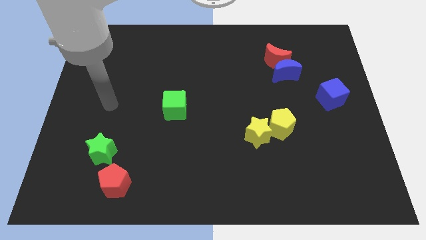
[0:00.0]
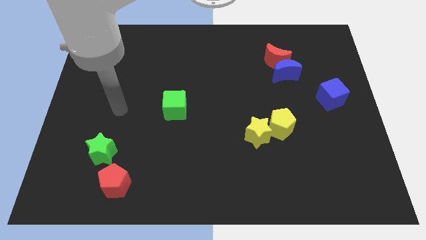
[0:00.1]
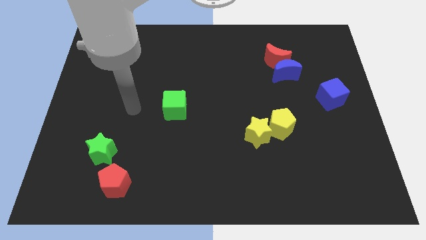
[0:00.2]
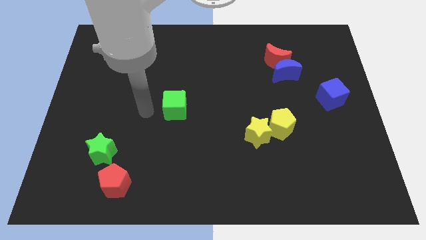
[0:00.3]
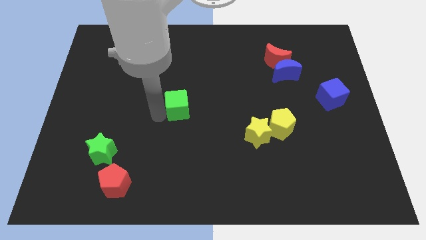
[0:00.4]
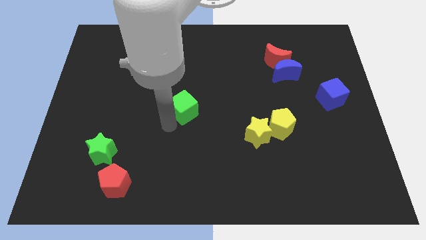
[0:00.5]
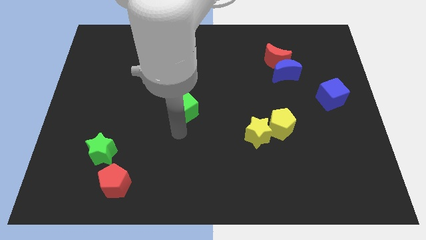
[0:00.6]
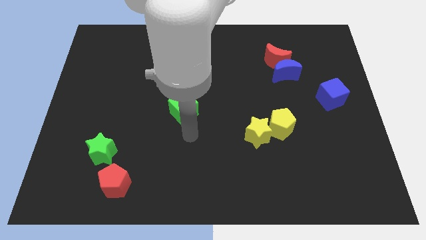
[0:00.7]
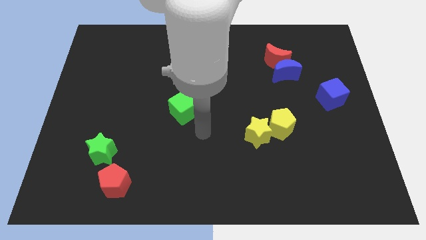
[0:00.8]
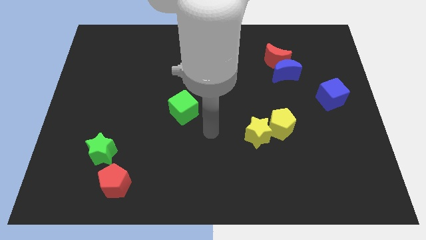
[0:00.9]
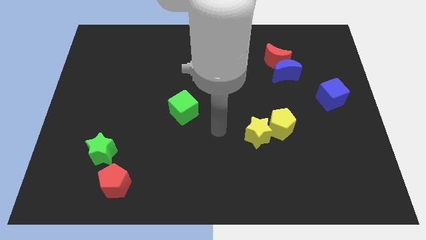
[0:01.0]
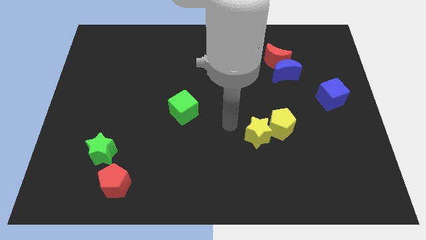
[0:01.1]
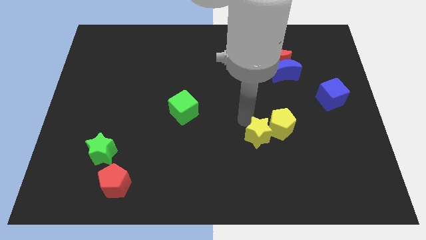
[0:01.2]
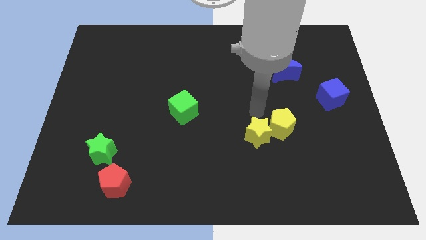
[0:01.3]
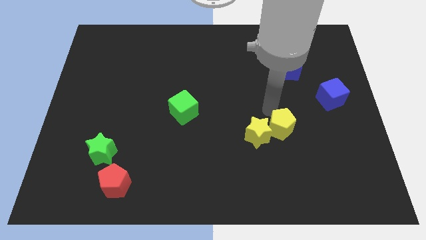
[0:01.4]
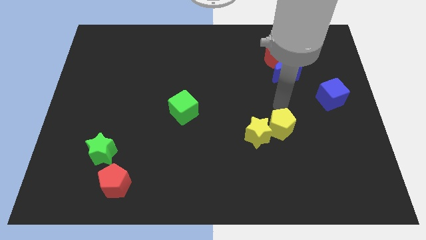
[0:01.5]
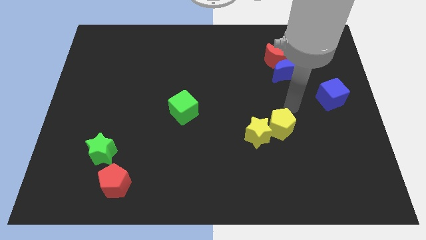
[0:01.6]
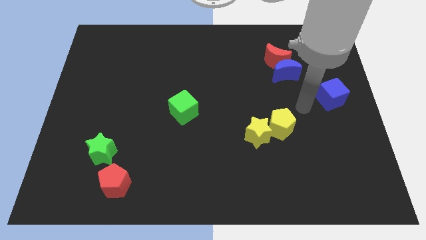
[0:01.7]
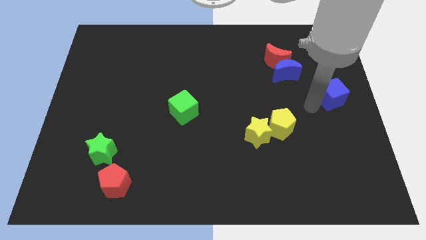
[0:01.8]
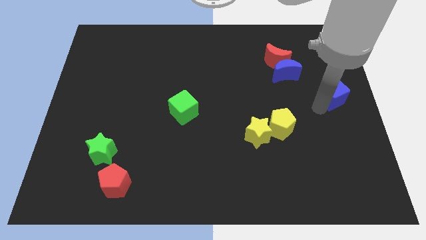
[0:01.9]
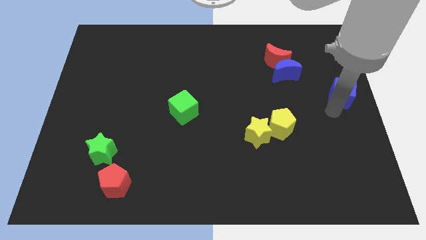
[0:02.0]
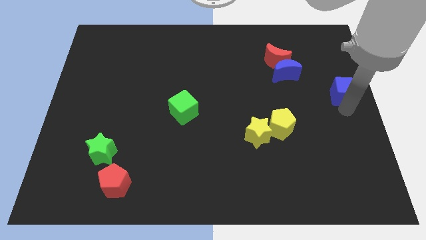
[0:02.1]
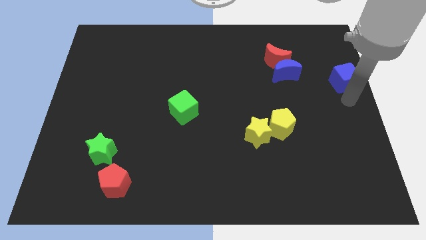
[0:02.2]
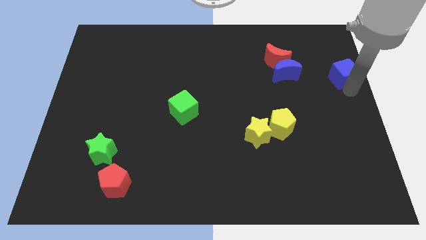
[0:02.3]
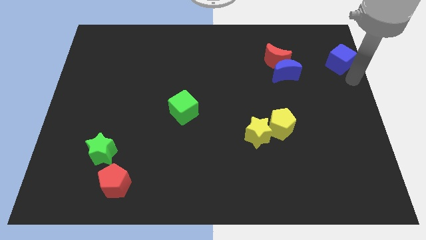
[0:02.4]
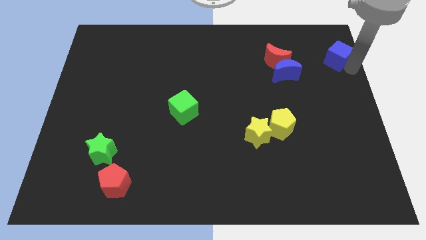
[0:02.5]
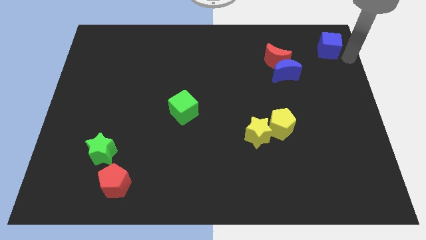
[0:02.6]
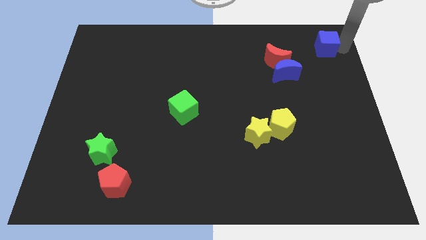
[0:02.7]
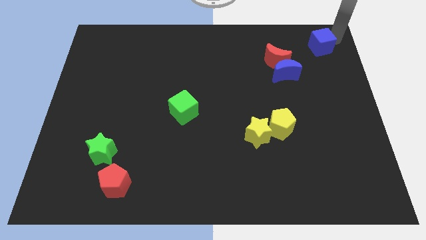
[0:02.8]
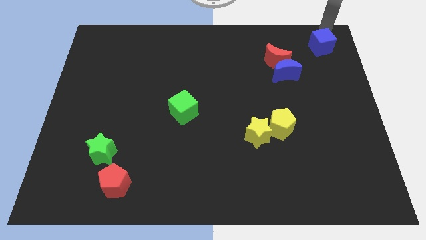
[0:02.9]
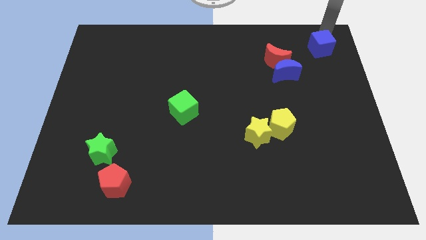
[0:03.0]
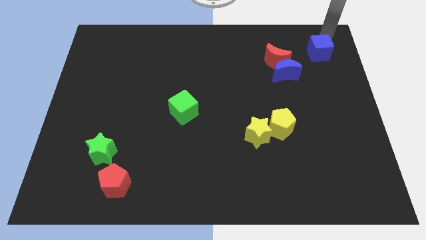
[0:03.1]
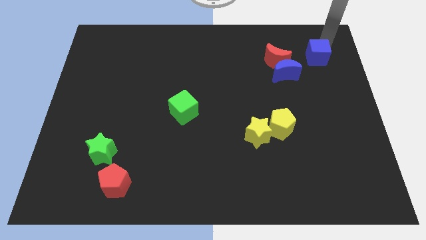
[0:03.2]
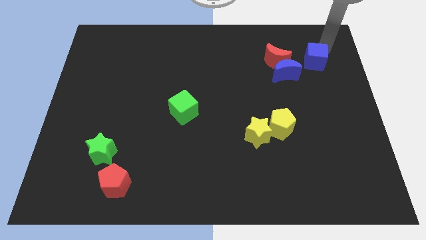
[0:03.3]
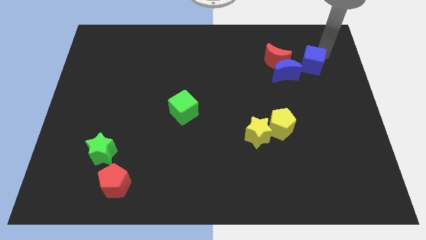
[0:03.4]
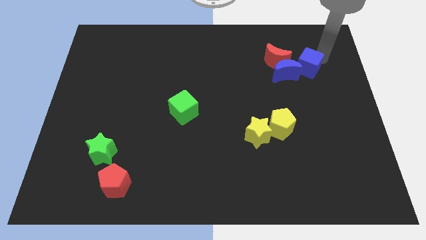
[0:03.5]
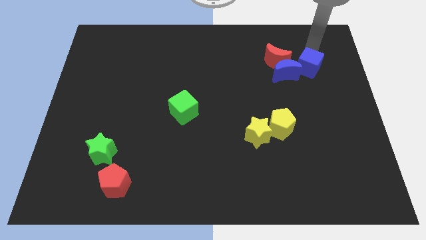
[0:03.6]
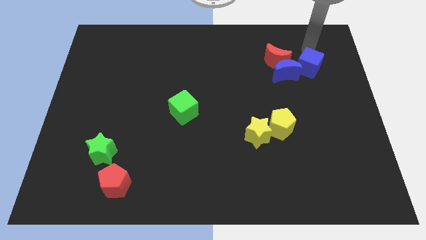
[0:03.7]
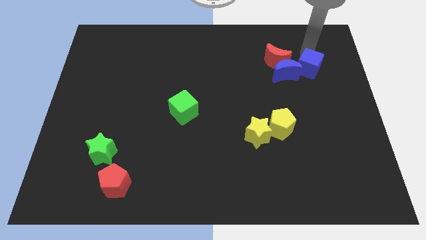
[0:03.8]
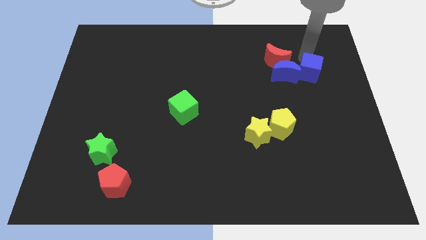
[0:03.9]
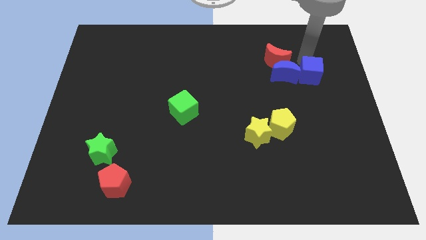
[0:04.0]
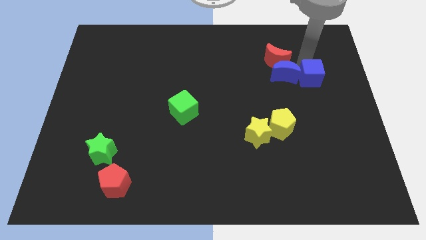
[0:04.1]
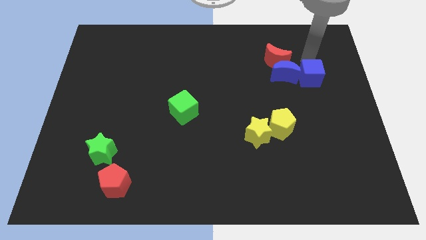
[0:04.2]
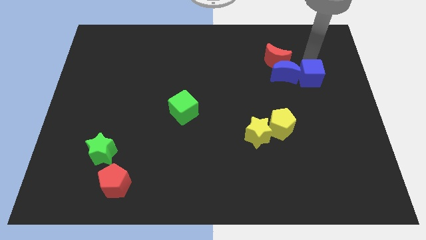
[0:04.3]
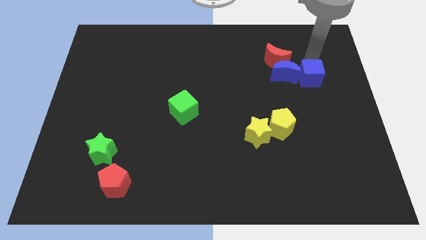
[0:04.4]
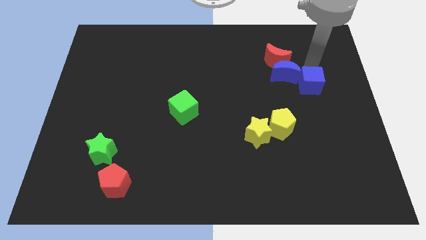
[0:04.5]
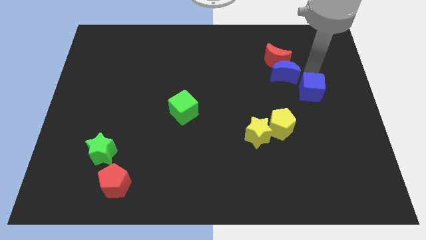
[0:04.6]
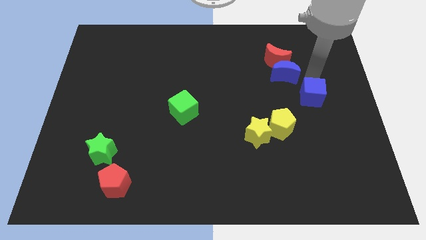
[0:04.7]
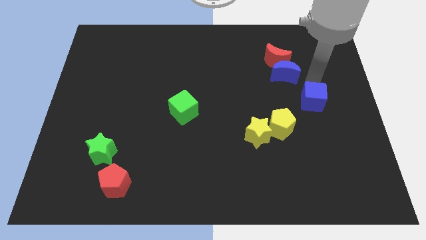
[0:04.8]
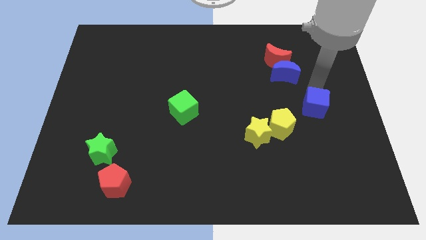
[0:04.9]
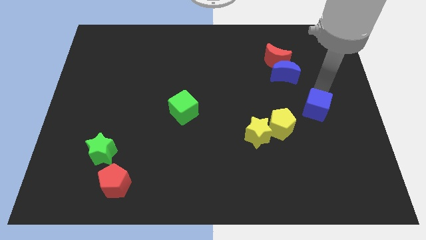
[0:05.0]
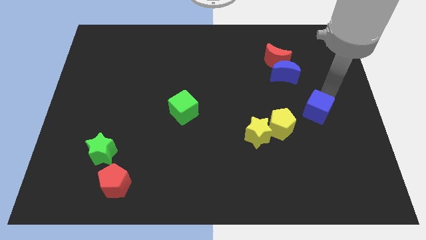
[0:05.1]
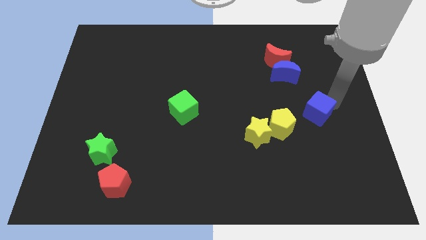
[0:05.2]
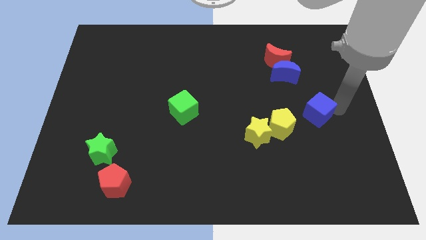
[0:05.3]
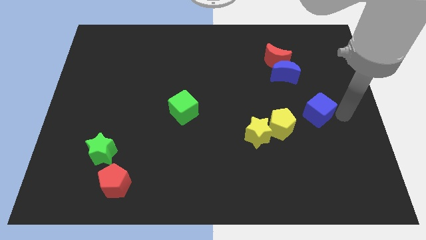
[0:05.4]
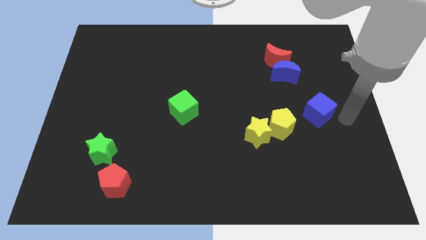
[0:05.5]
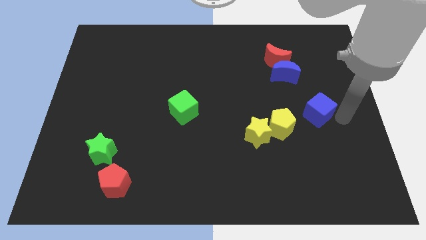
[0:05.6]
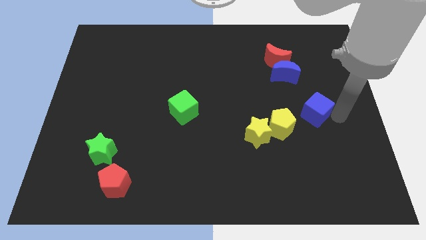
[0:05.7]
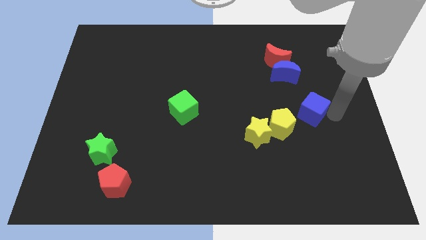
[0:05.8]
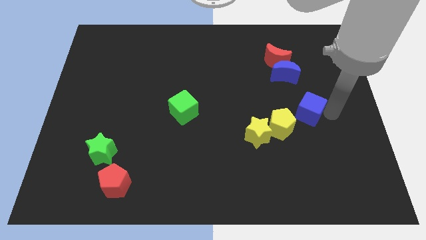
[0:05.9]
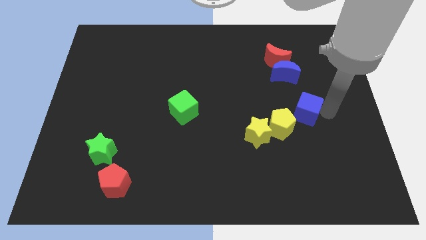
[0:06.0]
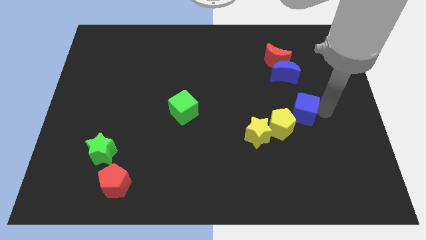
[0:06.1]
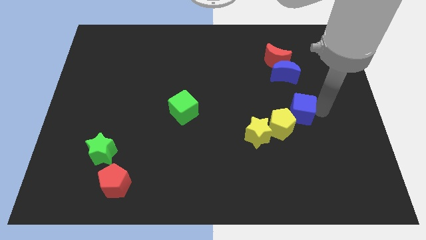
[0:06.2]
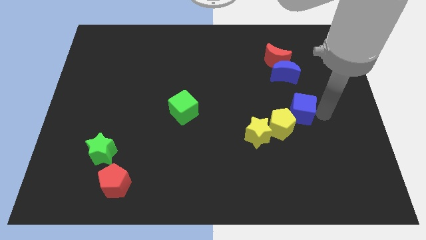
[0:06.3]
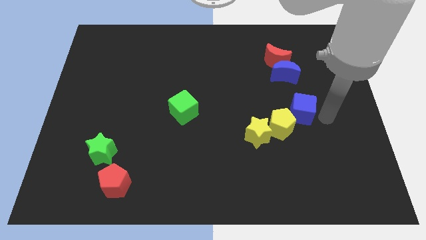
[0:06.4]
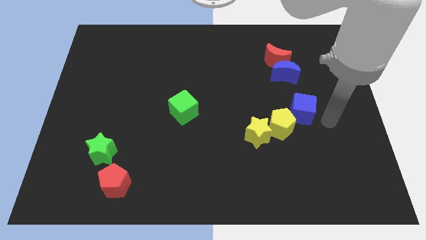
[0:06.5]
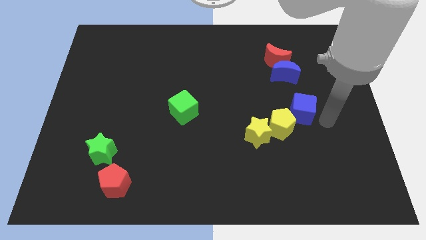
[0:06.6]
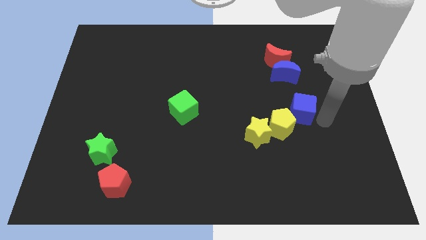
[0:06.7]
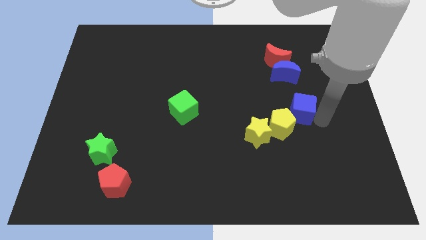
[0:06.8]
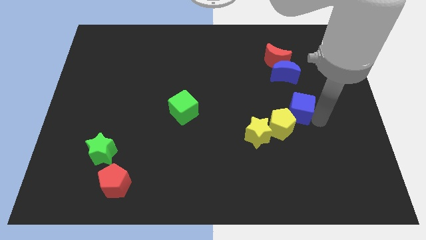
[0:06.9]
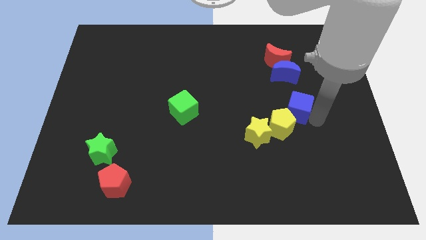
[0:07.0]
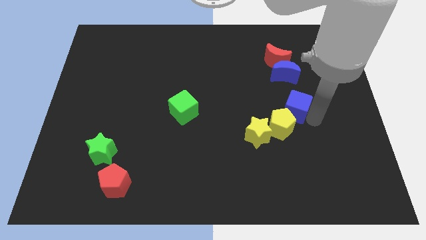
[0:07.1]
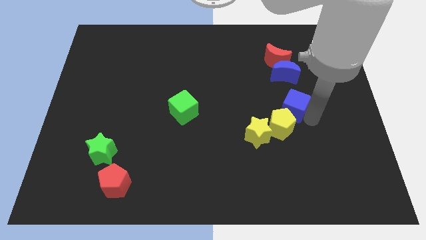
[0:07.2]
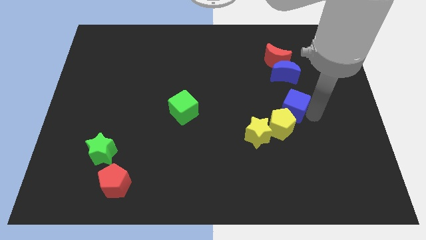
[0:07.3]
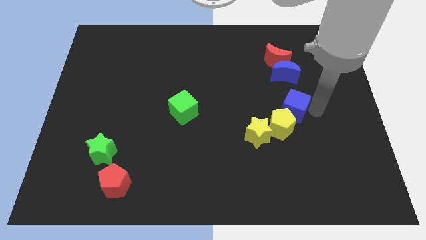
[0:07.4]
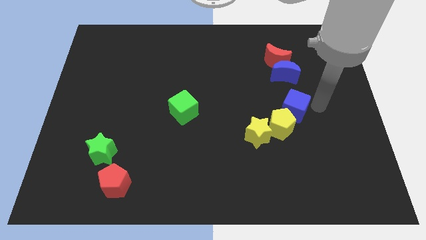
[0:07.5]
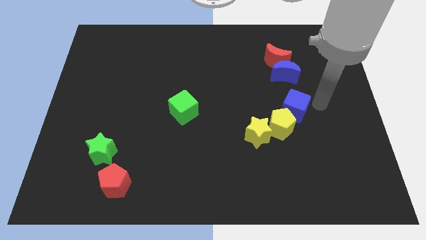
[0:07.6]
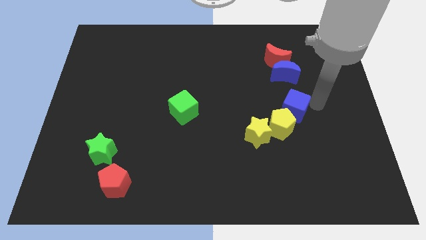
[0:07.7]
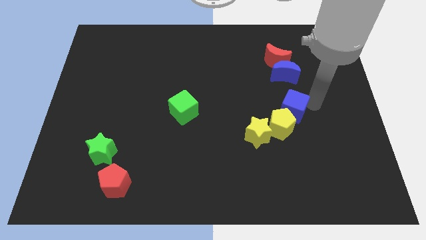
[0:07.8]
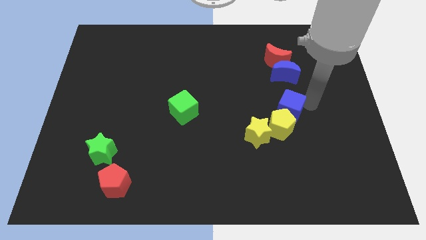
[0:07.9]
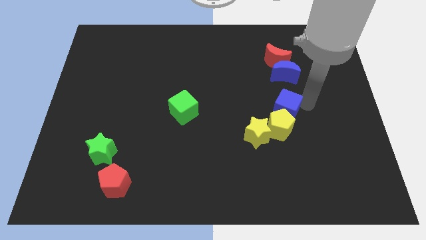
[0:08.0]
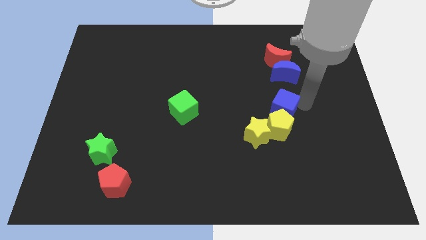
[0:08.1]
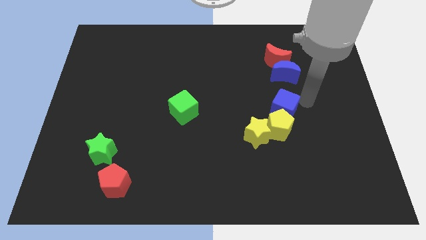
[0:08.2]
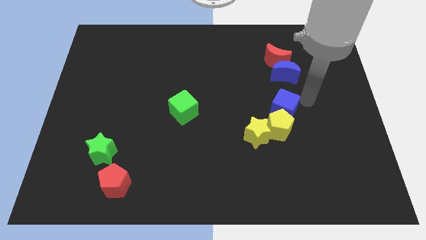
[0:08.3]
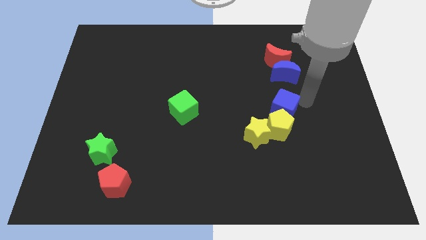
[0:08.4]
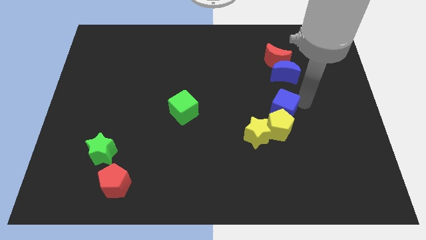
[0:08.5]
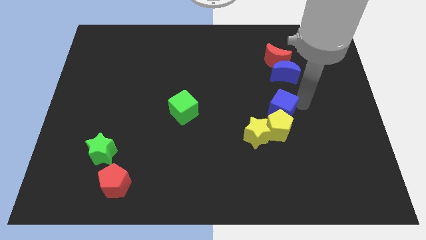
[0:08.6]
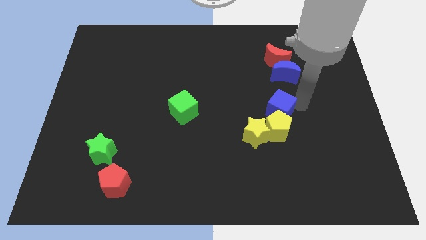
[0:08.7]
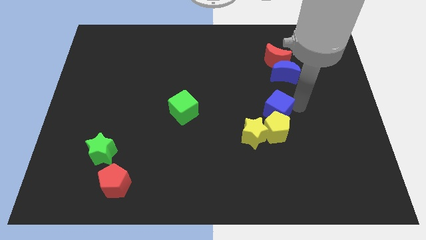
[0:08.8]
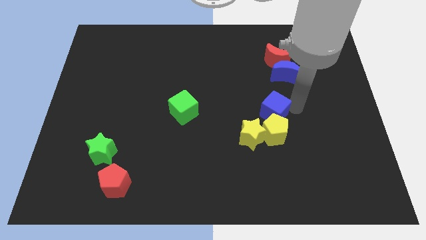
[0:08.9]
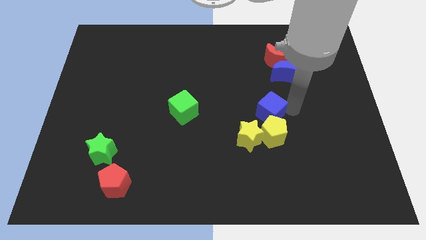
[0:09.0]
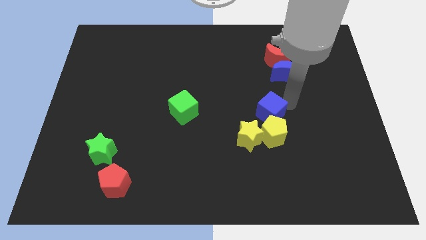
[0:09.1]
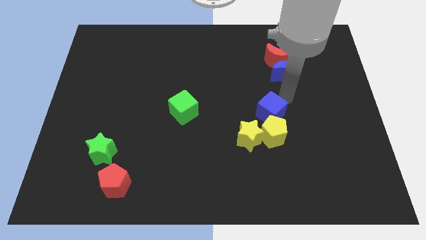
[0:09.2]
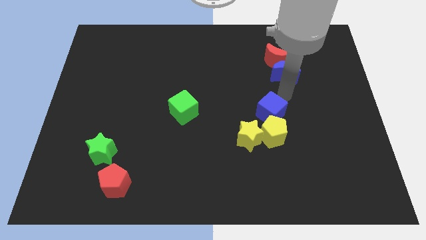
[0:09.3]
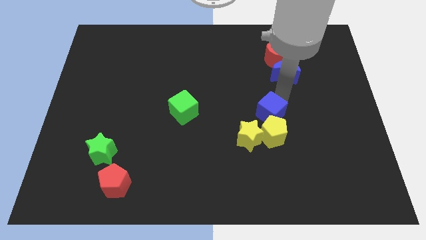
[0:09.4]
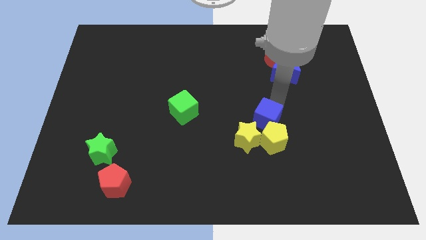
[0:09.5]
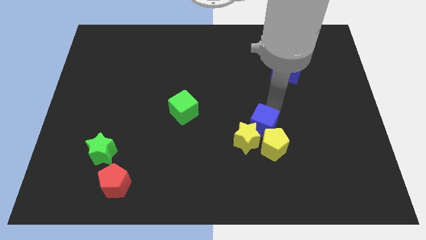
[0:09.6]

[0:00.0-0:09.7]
put the blue cube close to the yellow star
